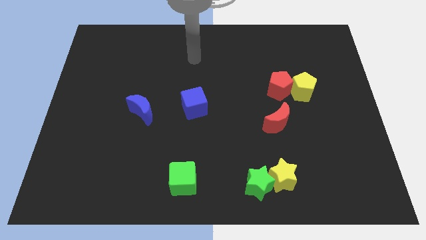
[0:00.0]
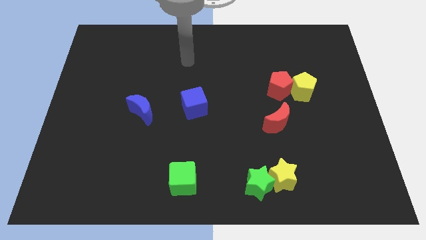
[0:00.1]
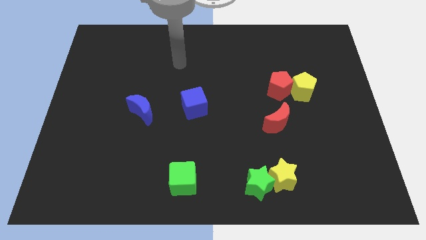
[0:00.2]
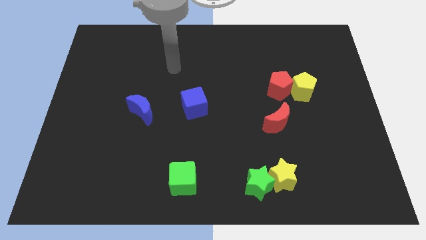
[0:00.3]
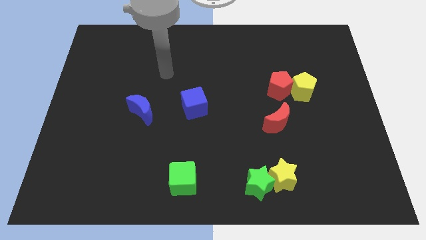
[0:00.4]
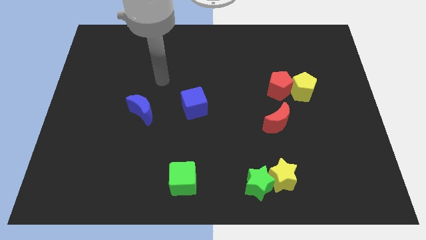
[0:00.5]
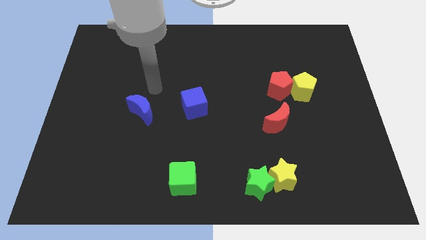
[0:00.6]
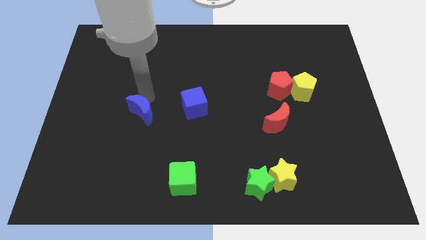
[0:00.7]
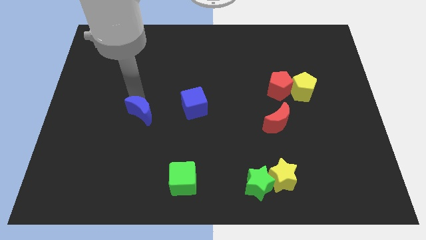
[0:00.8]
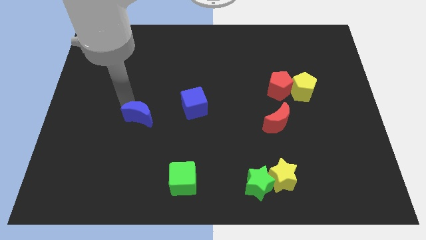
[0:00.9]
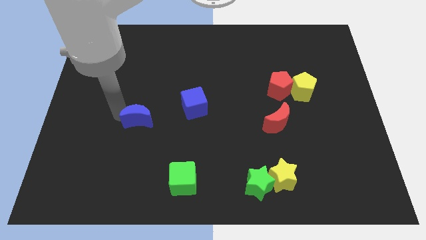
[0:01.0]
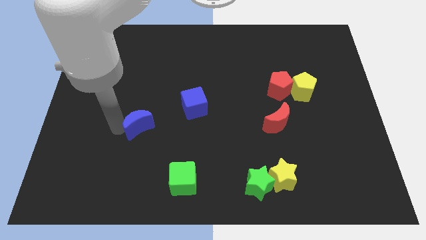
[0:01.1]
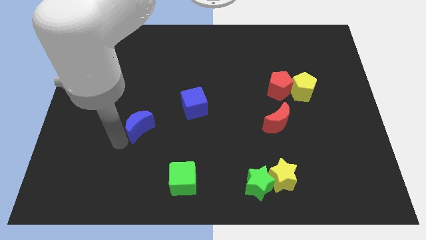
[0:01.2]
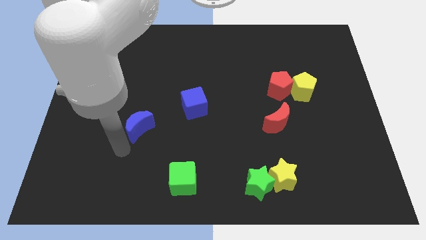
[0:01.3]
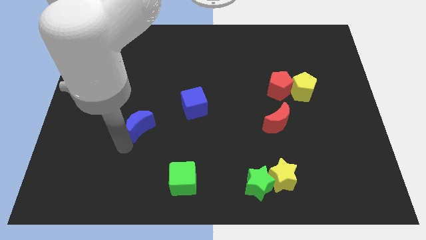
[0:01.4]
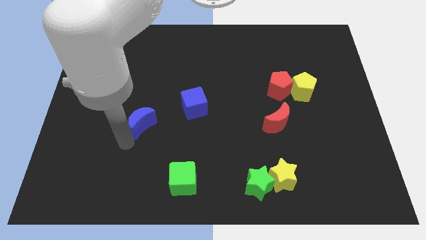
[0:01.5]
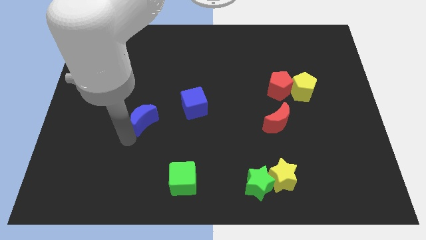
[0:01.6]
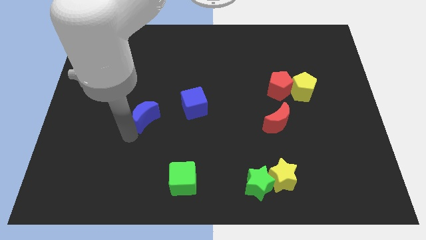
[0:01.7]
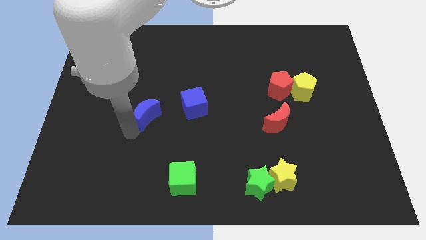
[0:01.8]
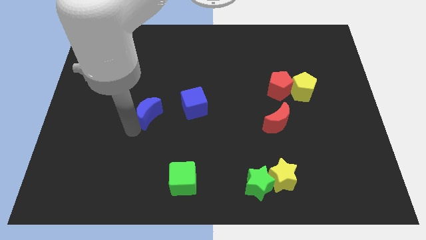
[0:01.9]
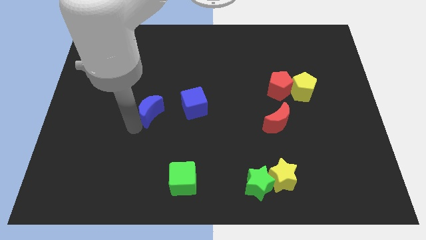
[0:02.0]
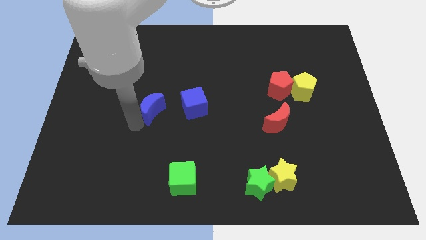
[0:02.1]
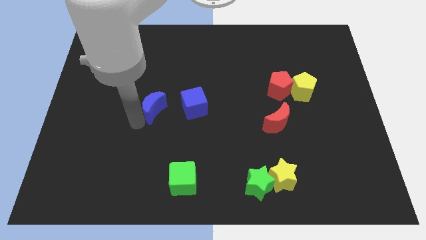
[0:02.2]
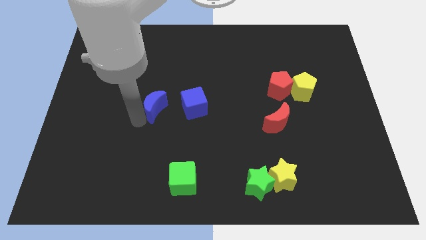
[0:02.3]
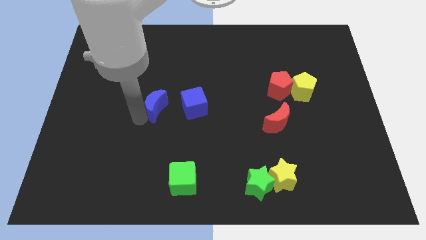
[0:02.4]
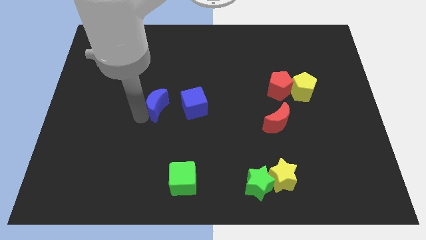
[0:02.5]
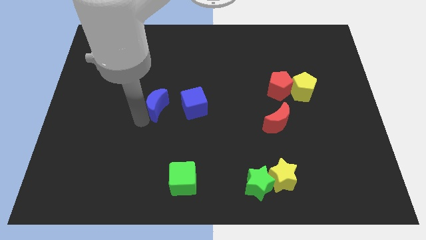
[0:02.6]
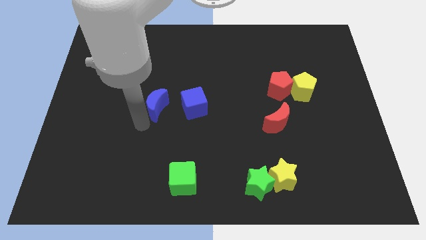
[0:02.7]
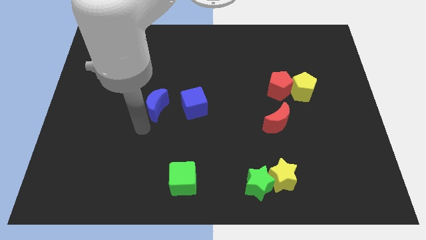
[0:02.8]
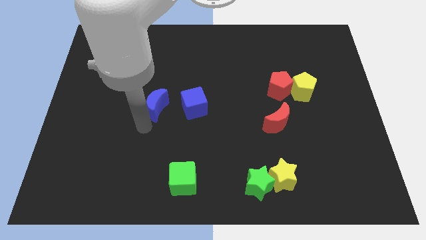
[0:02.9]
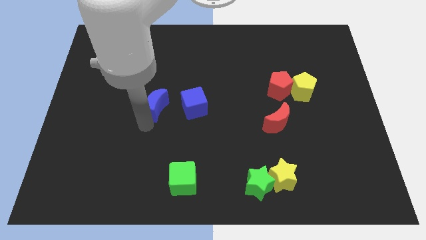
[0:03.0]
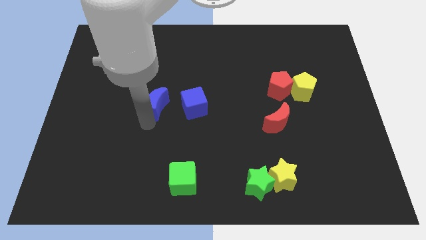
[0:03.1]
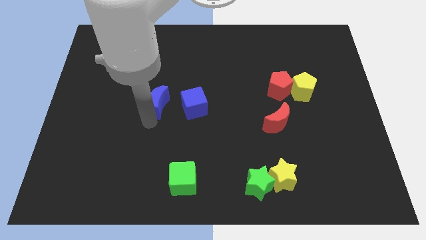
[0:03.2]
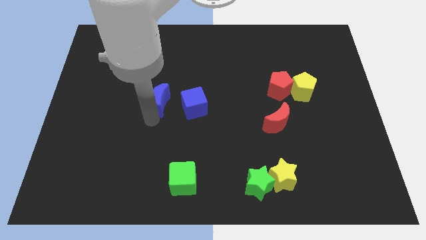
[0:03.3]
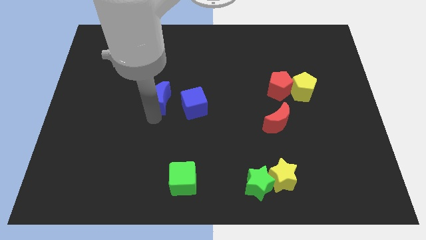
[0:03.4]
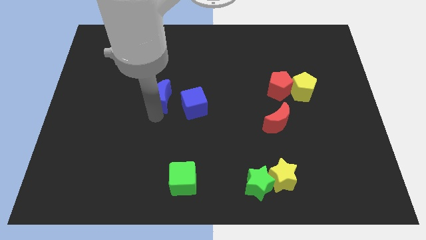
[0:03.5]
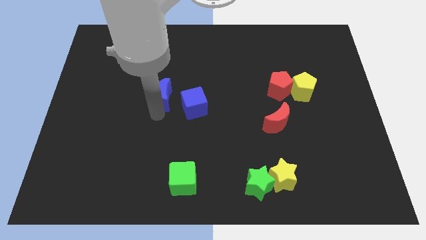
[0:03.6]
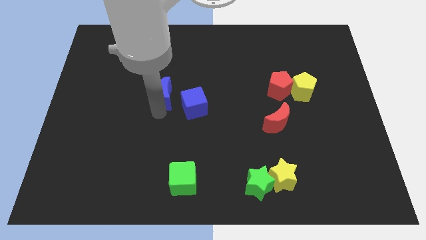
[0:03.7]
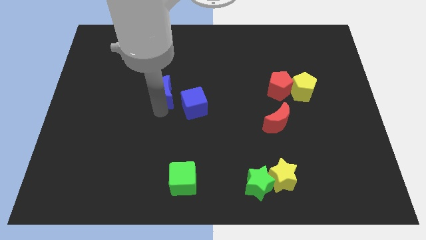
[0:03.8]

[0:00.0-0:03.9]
push the blue moon up and to the right a little

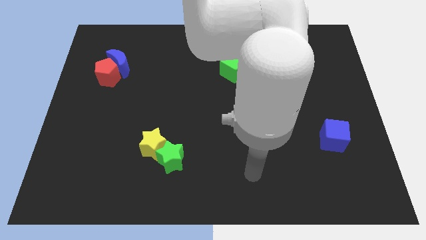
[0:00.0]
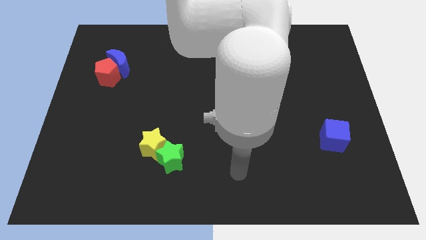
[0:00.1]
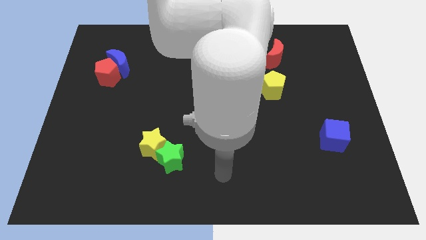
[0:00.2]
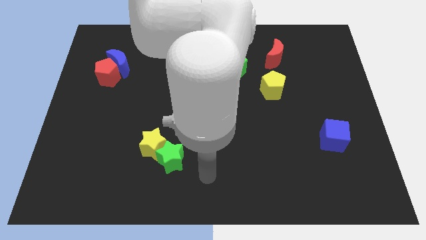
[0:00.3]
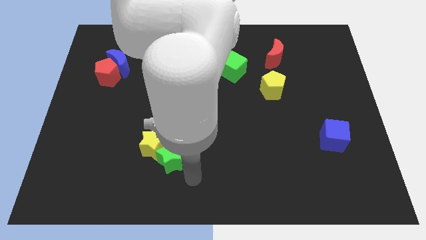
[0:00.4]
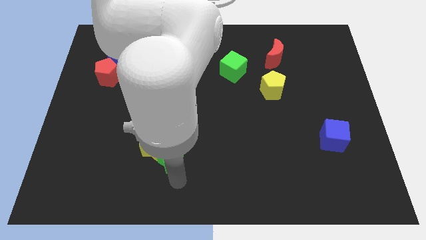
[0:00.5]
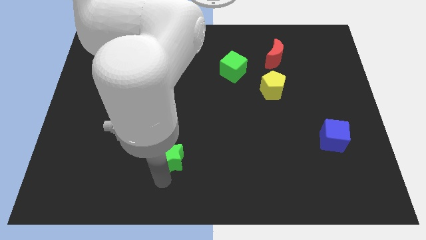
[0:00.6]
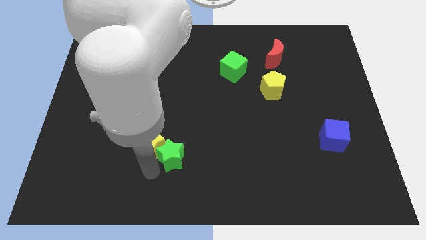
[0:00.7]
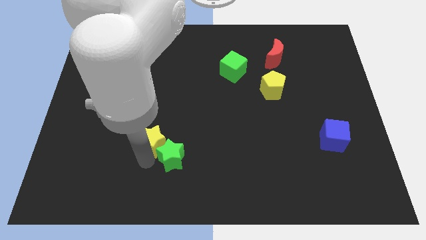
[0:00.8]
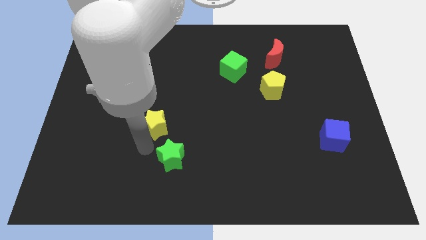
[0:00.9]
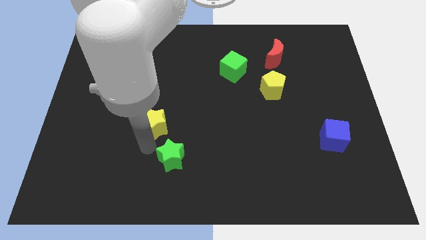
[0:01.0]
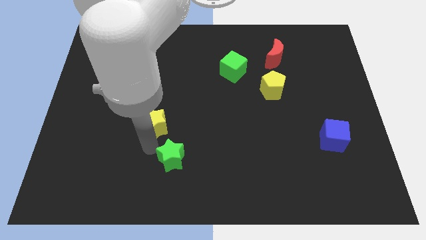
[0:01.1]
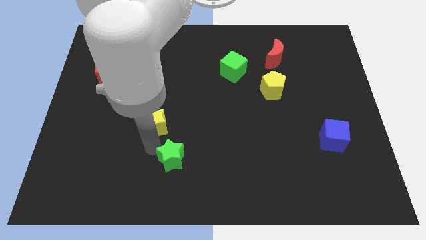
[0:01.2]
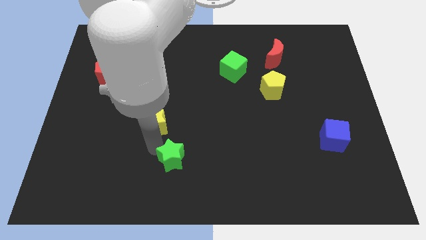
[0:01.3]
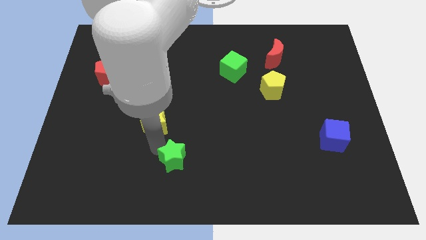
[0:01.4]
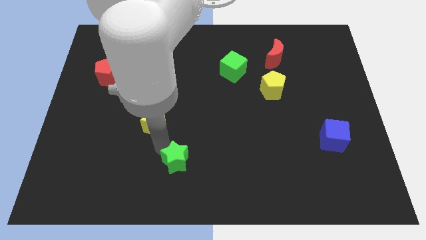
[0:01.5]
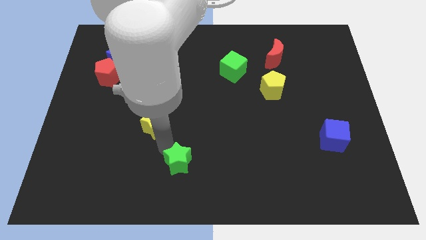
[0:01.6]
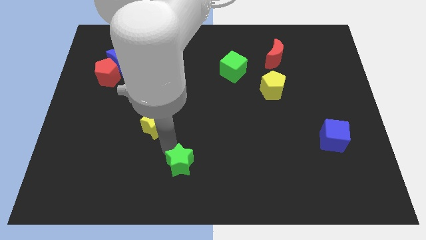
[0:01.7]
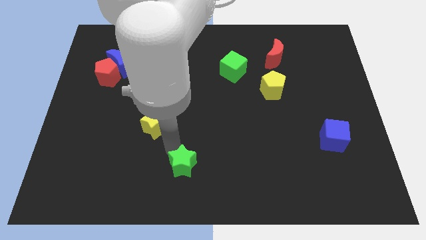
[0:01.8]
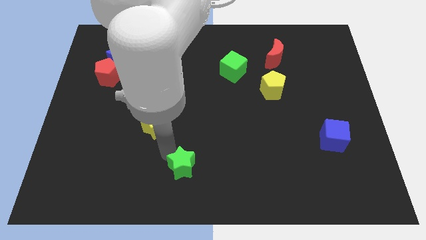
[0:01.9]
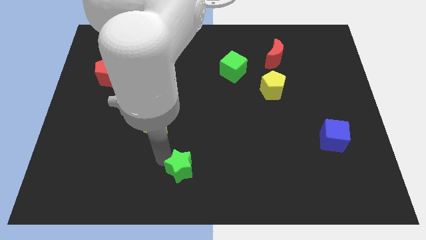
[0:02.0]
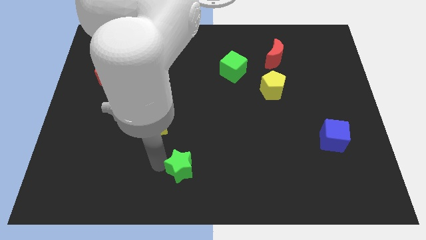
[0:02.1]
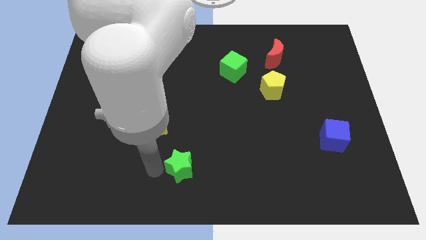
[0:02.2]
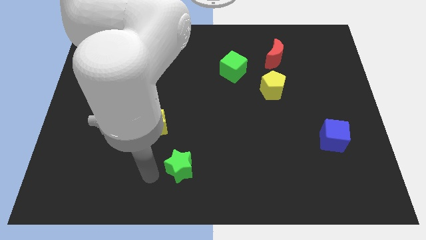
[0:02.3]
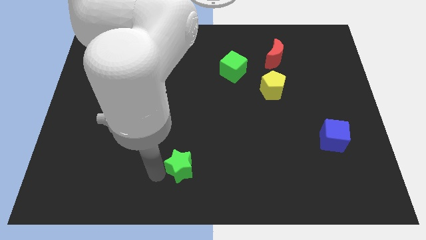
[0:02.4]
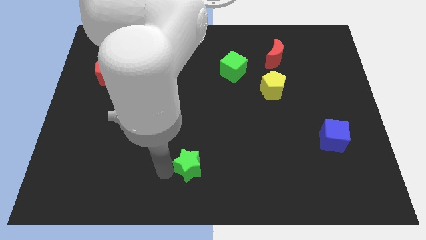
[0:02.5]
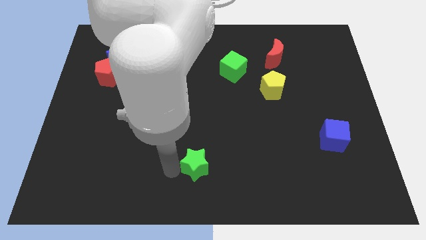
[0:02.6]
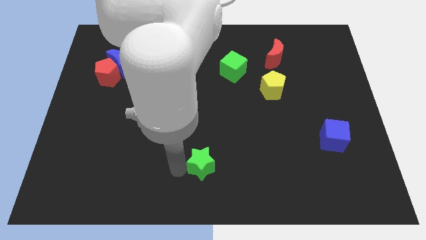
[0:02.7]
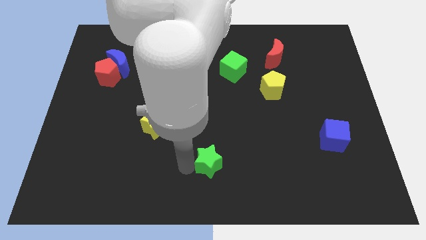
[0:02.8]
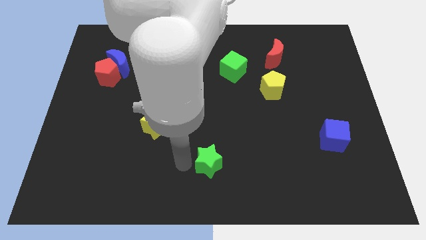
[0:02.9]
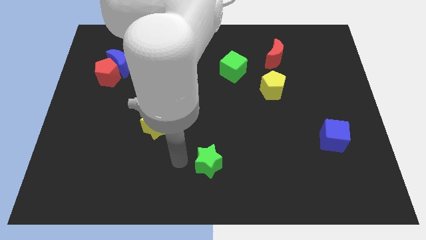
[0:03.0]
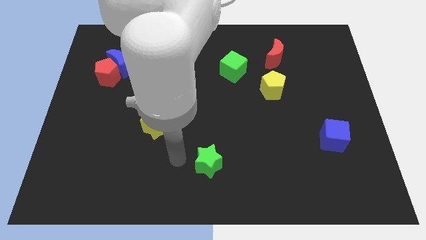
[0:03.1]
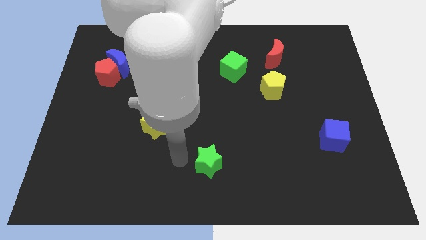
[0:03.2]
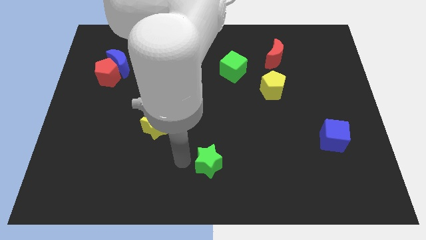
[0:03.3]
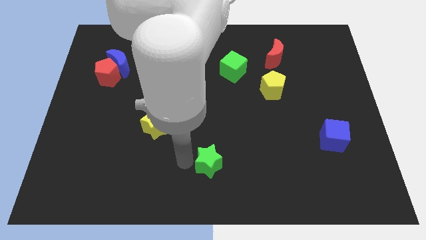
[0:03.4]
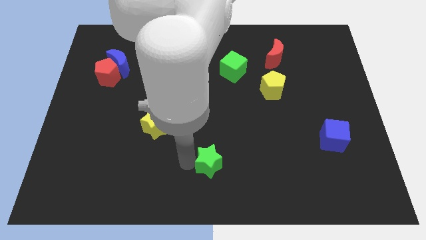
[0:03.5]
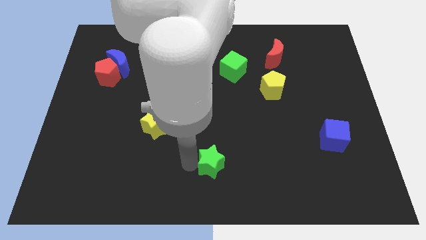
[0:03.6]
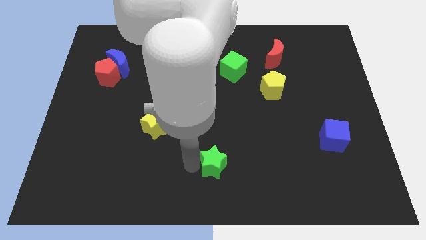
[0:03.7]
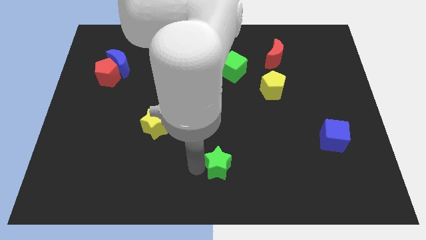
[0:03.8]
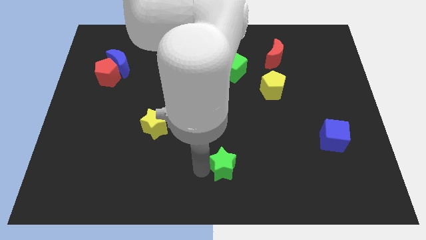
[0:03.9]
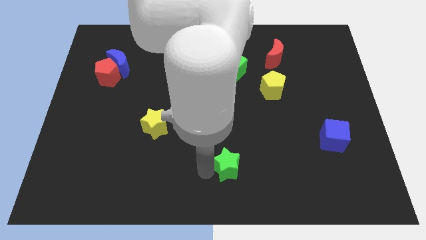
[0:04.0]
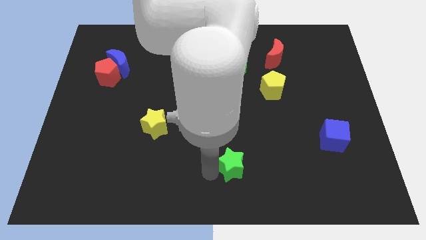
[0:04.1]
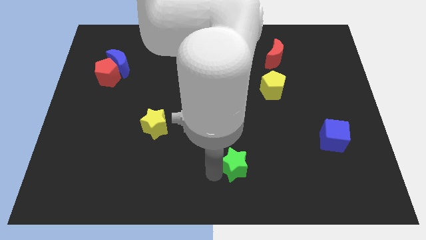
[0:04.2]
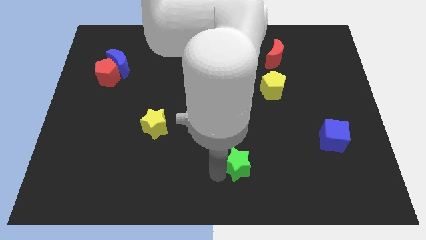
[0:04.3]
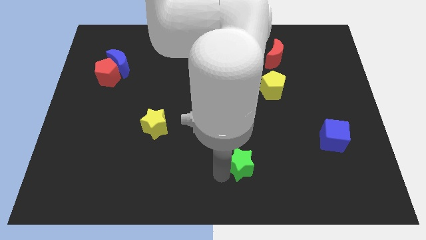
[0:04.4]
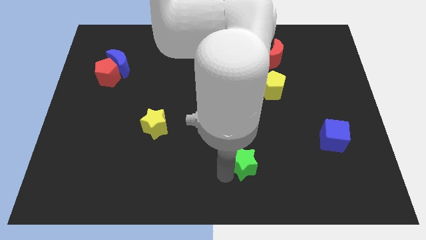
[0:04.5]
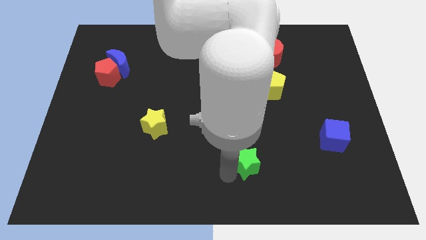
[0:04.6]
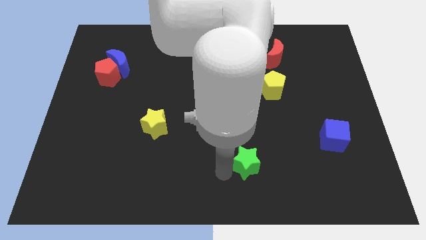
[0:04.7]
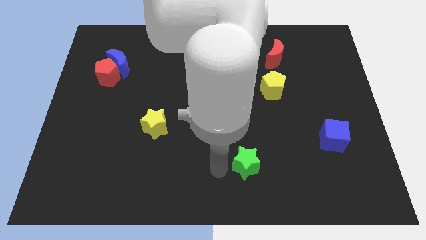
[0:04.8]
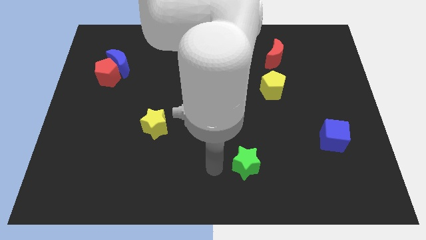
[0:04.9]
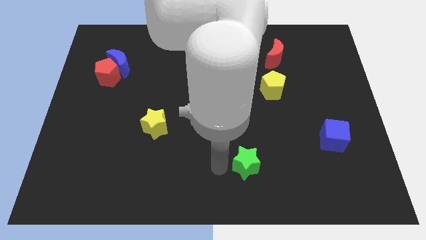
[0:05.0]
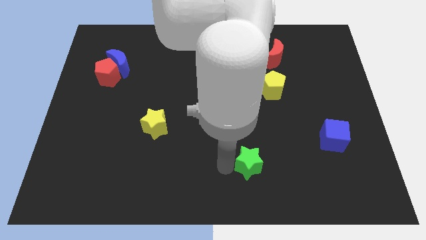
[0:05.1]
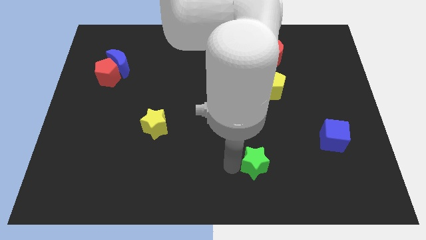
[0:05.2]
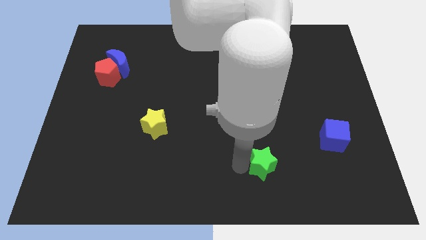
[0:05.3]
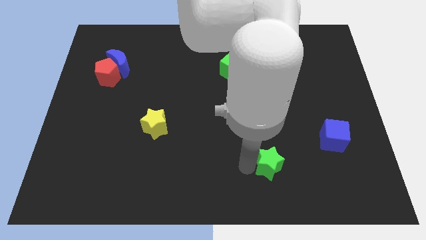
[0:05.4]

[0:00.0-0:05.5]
push the green star right
